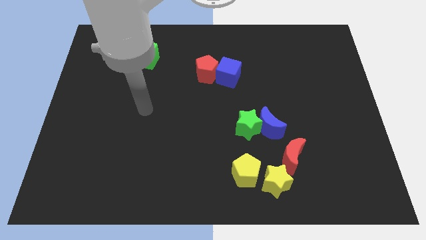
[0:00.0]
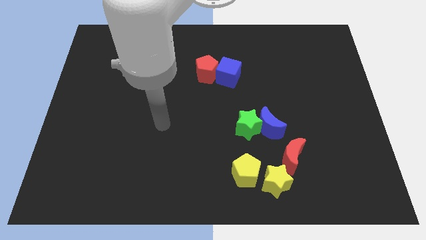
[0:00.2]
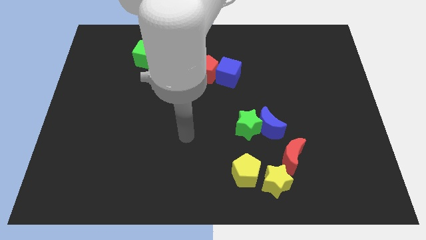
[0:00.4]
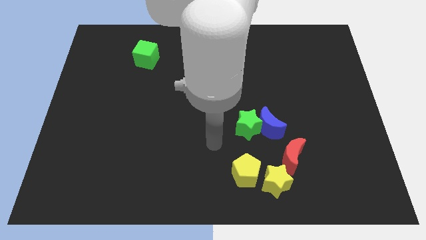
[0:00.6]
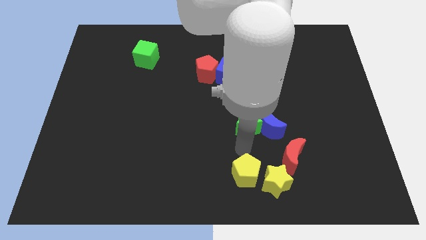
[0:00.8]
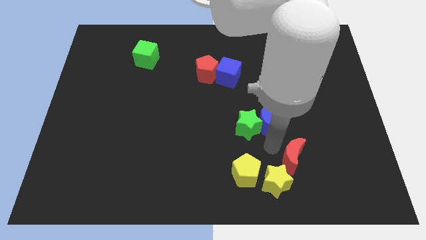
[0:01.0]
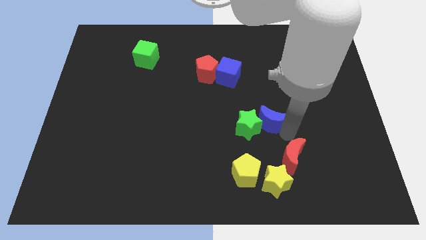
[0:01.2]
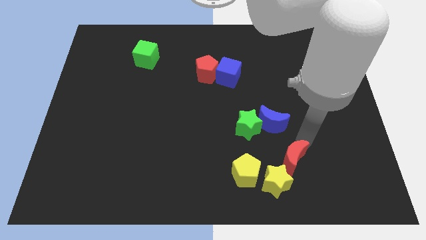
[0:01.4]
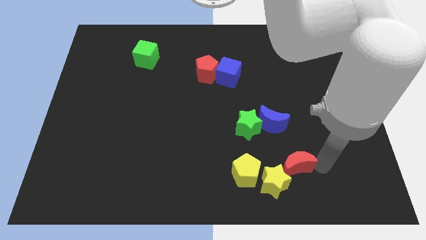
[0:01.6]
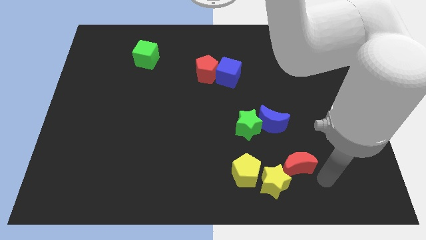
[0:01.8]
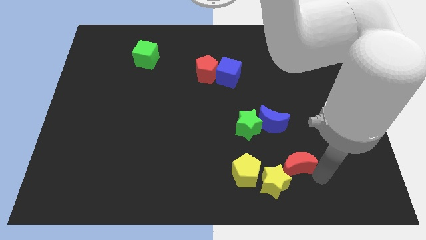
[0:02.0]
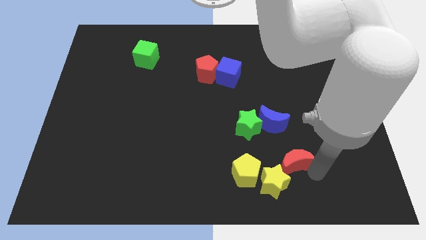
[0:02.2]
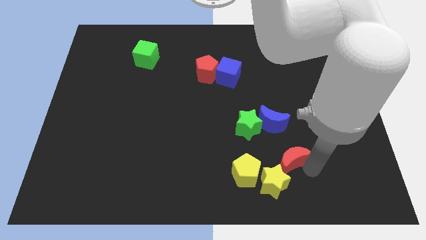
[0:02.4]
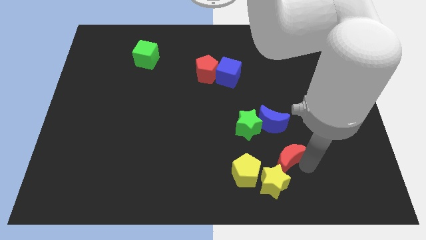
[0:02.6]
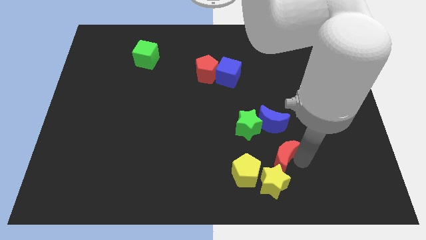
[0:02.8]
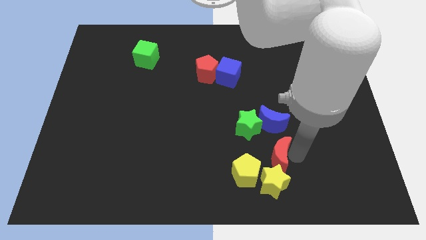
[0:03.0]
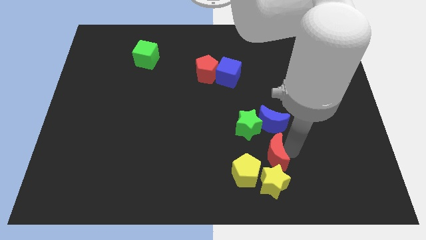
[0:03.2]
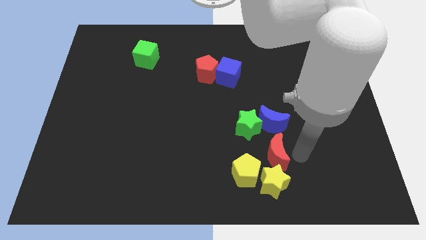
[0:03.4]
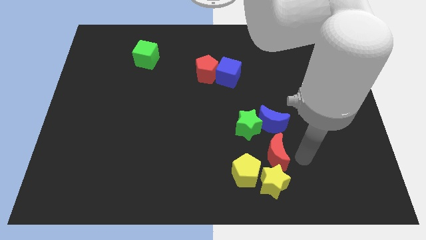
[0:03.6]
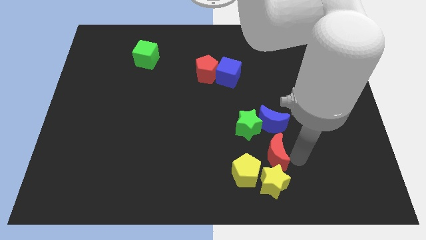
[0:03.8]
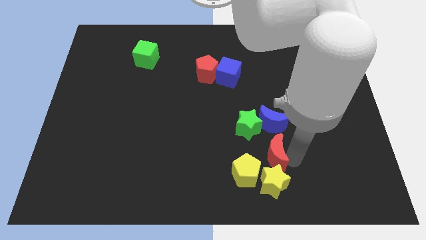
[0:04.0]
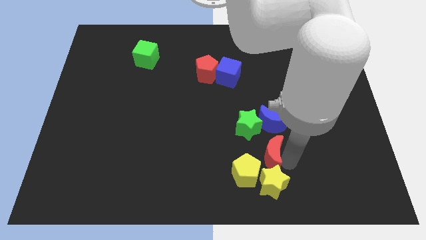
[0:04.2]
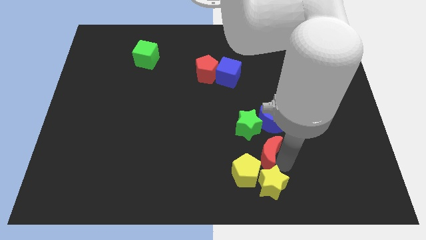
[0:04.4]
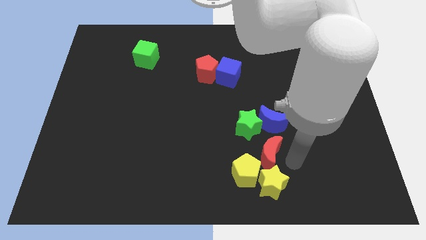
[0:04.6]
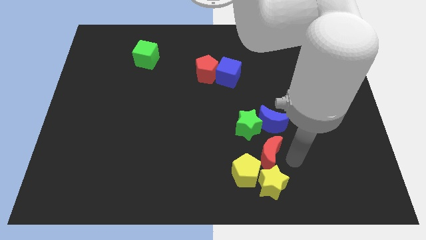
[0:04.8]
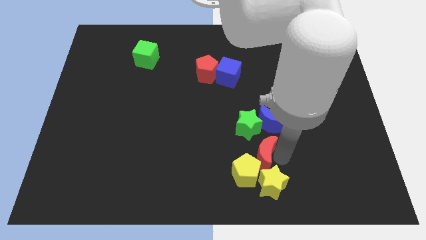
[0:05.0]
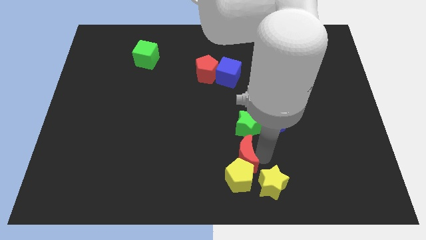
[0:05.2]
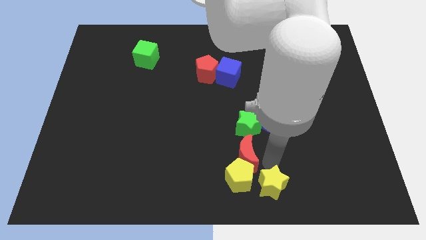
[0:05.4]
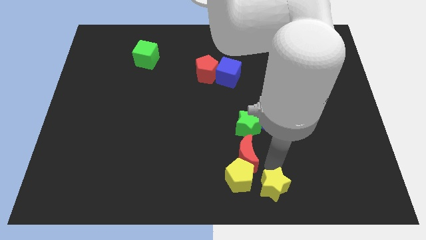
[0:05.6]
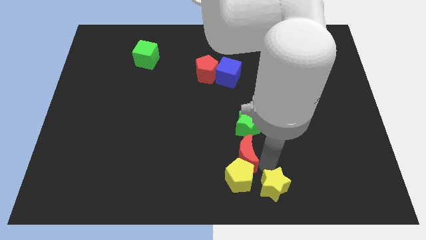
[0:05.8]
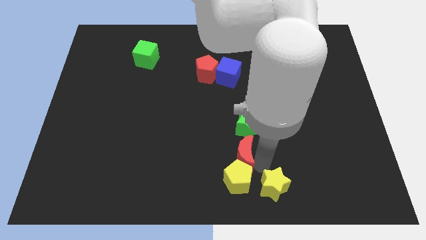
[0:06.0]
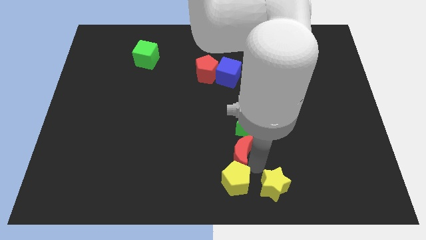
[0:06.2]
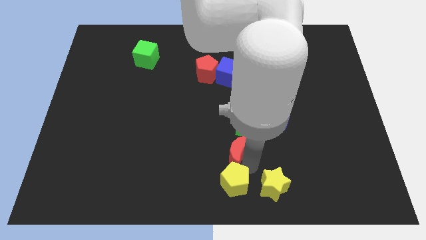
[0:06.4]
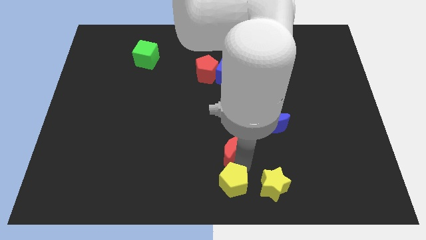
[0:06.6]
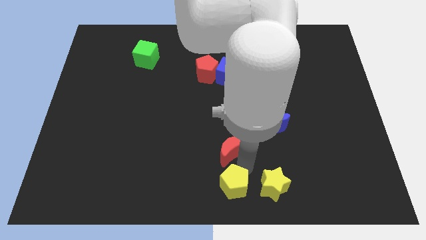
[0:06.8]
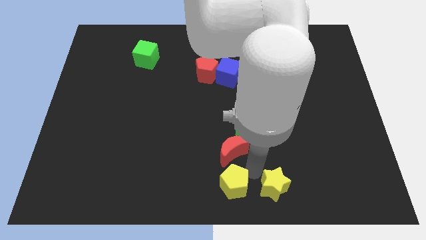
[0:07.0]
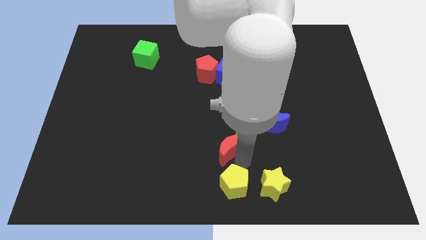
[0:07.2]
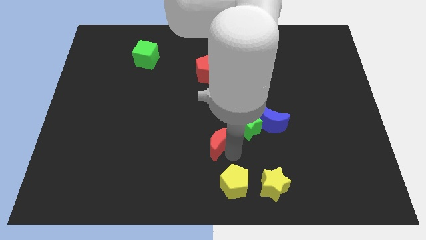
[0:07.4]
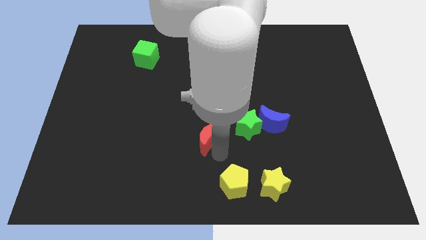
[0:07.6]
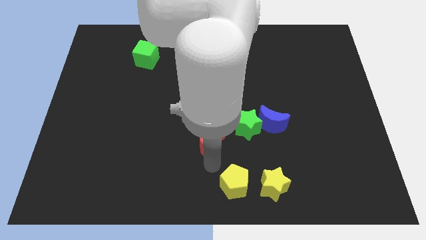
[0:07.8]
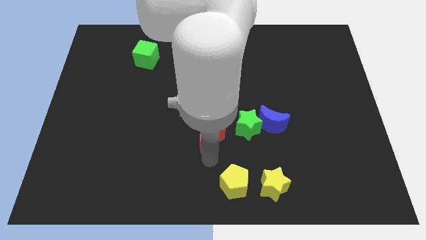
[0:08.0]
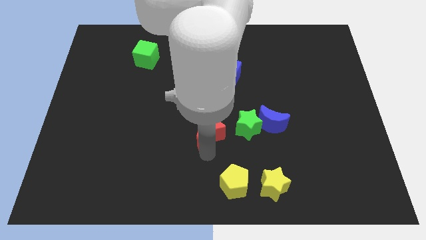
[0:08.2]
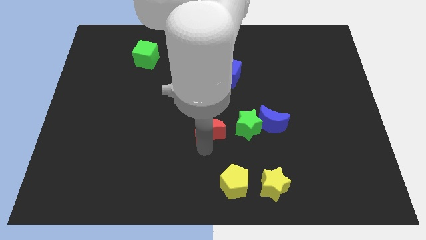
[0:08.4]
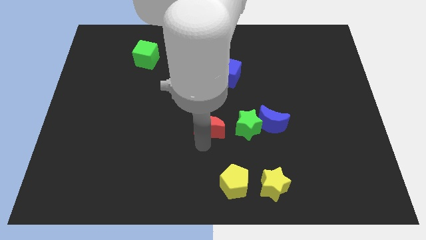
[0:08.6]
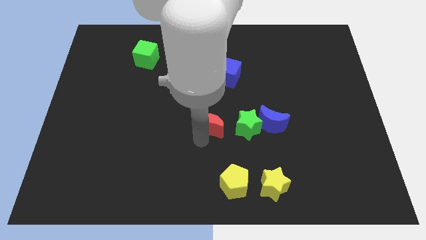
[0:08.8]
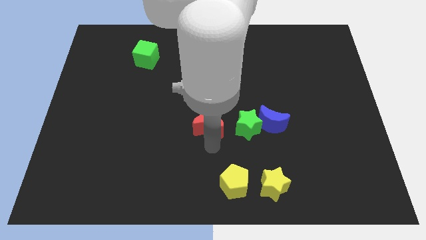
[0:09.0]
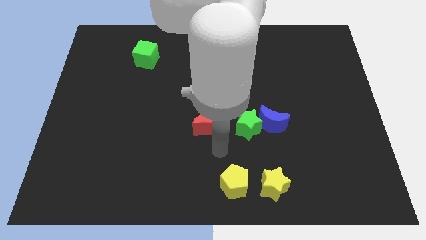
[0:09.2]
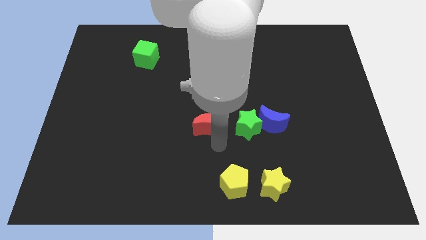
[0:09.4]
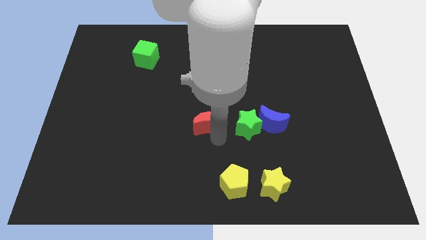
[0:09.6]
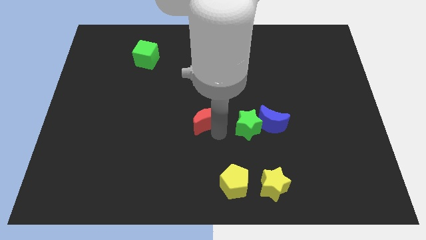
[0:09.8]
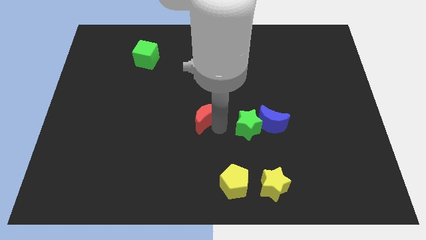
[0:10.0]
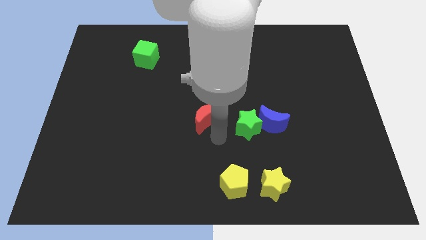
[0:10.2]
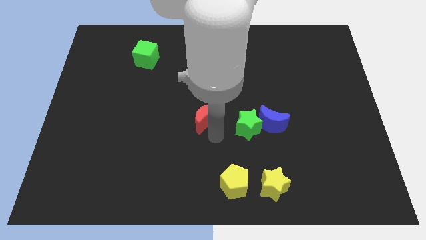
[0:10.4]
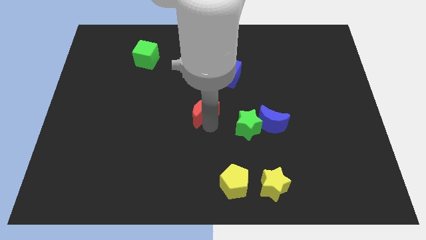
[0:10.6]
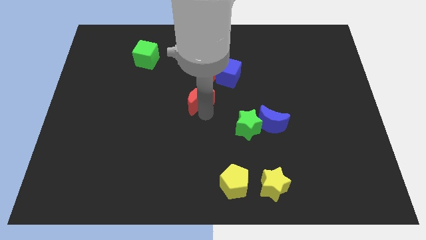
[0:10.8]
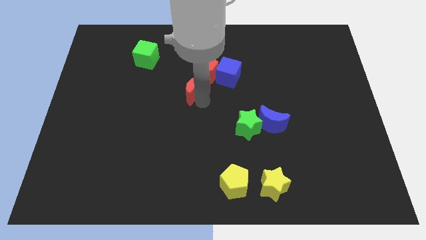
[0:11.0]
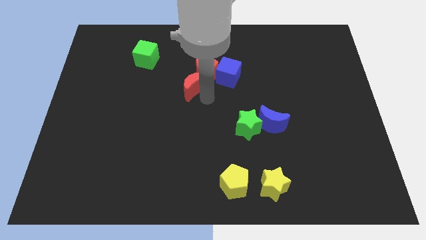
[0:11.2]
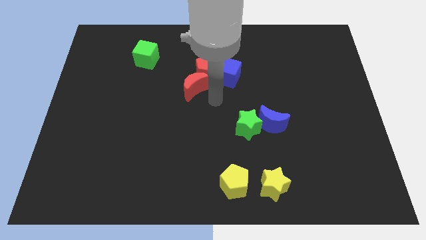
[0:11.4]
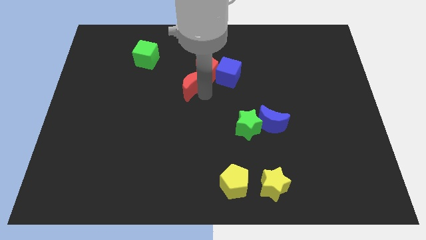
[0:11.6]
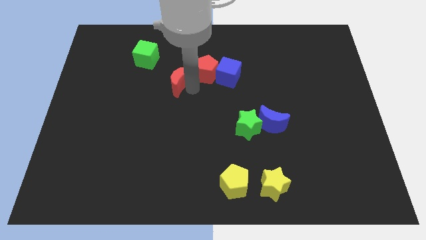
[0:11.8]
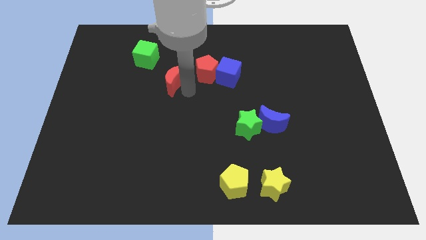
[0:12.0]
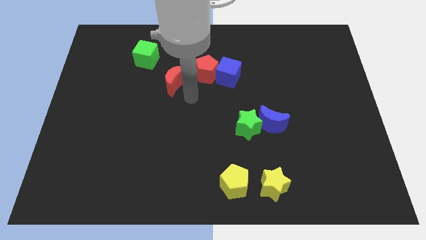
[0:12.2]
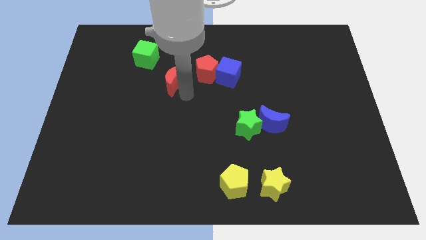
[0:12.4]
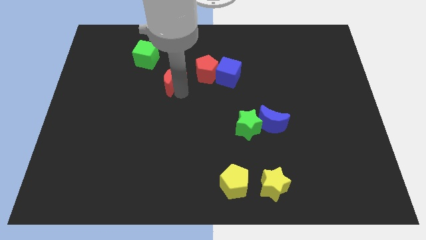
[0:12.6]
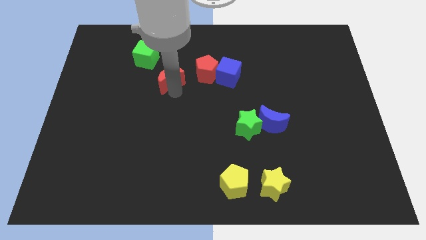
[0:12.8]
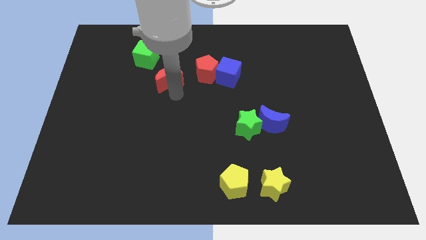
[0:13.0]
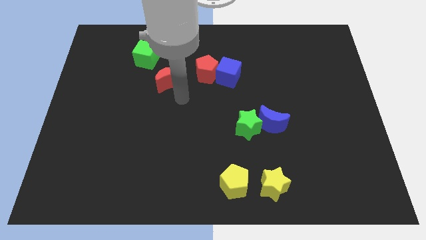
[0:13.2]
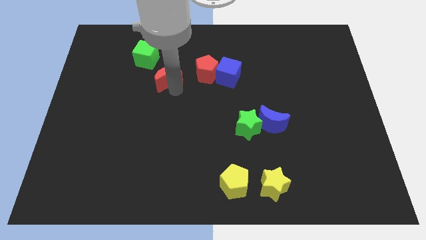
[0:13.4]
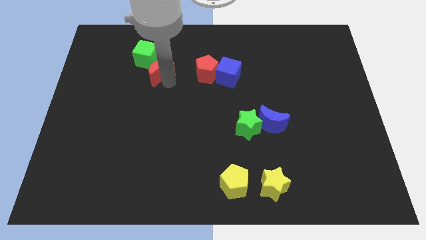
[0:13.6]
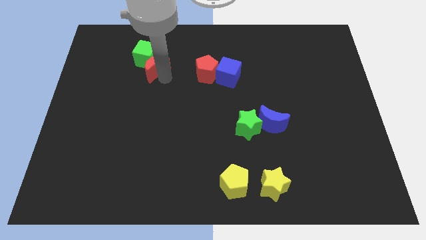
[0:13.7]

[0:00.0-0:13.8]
put the red moon close to the green cube
